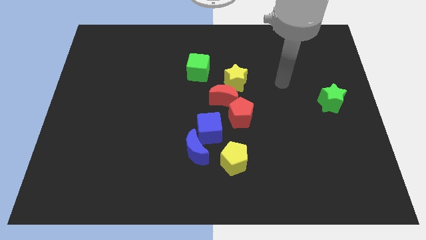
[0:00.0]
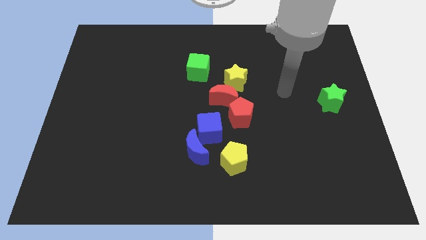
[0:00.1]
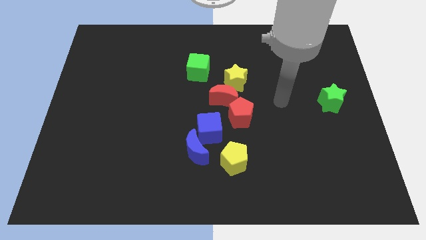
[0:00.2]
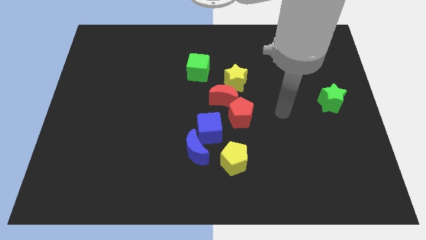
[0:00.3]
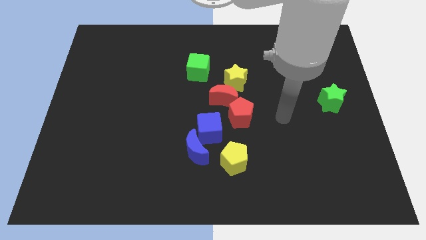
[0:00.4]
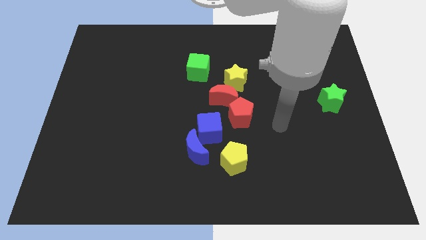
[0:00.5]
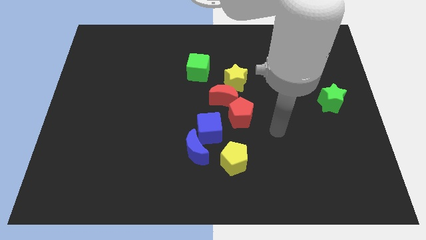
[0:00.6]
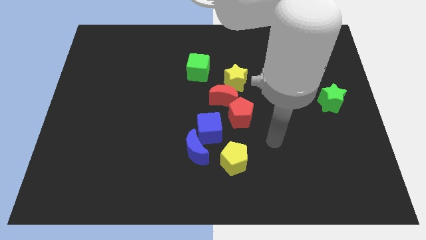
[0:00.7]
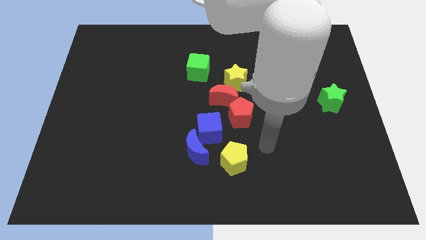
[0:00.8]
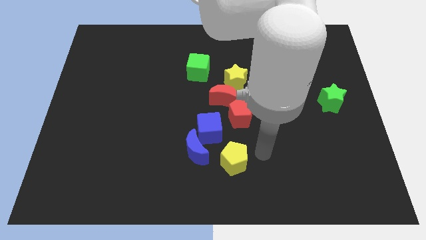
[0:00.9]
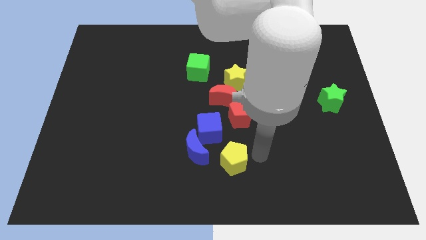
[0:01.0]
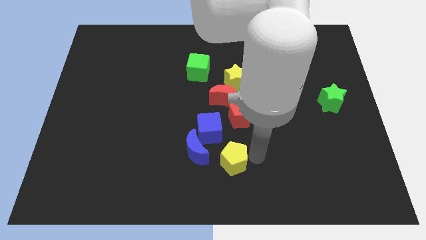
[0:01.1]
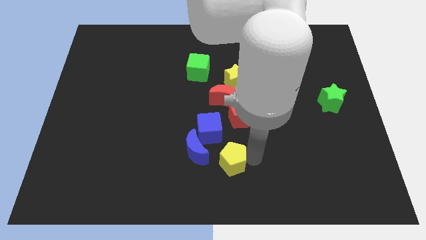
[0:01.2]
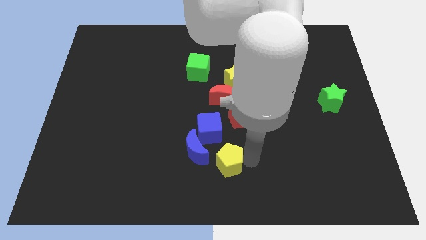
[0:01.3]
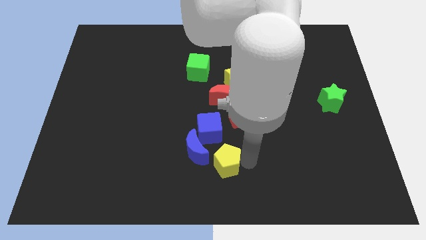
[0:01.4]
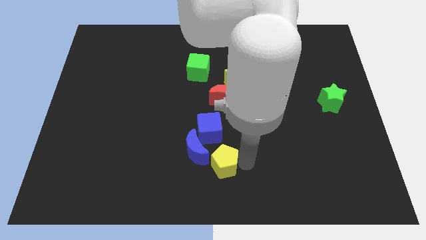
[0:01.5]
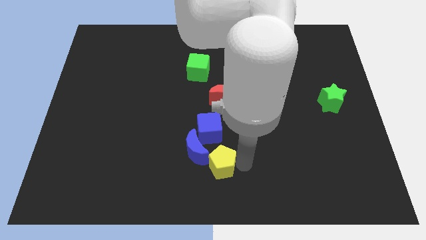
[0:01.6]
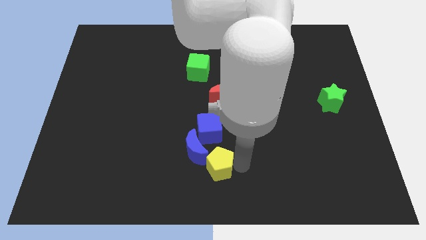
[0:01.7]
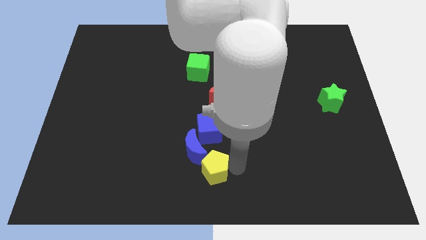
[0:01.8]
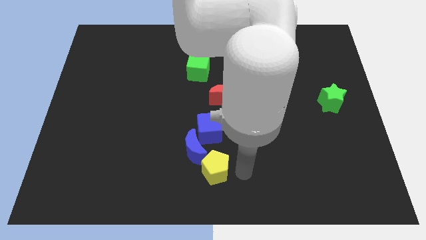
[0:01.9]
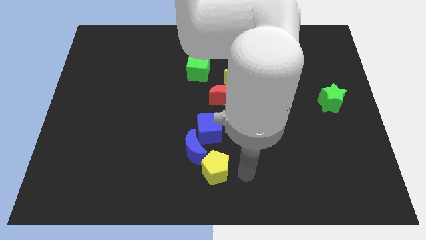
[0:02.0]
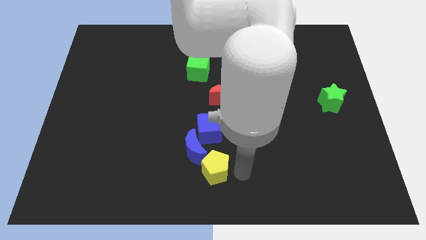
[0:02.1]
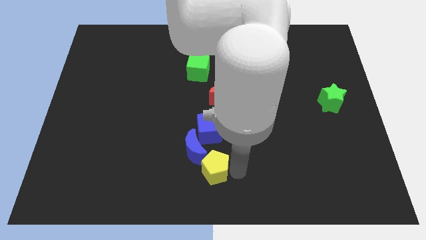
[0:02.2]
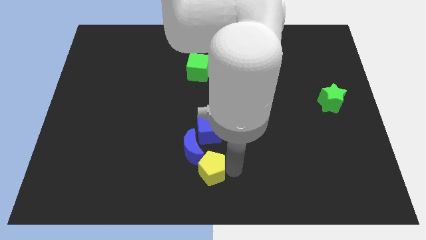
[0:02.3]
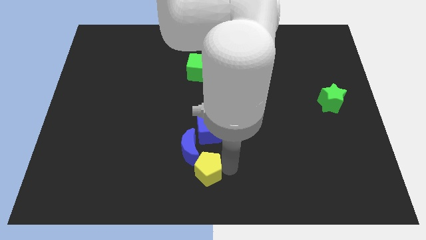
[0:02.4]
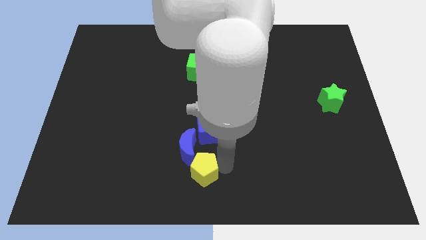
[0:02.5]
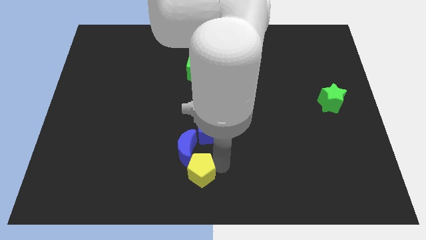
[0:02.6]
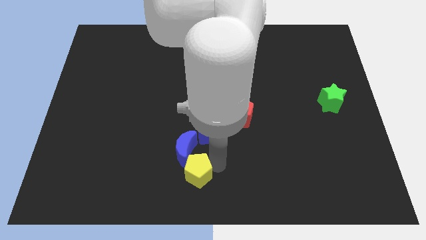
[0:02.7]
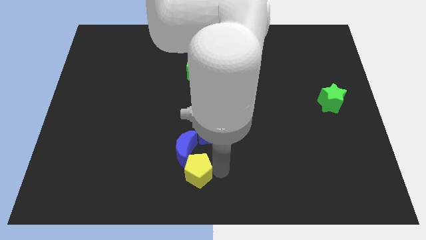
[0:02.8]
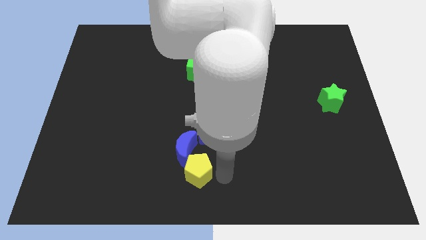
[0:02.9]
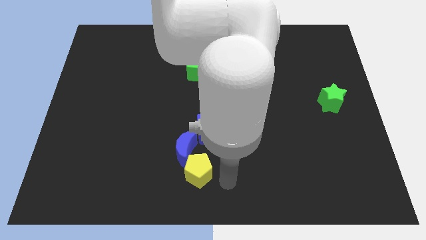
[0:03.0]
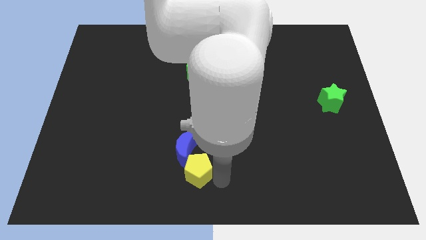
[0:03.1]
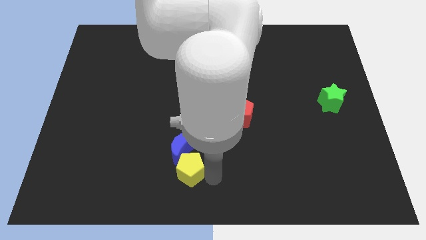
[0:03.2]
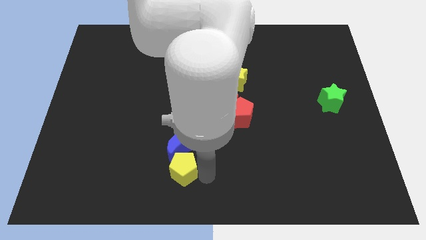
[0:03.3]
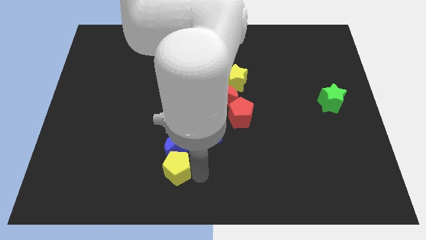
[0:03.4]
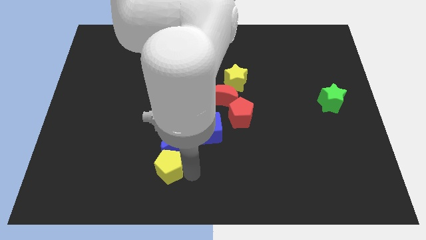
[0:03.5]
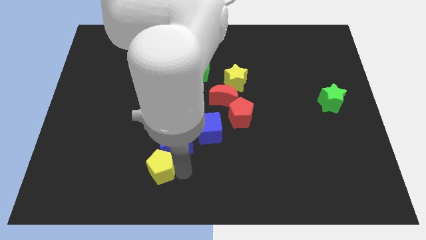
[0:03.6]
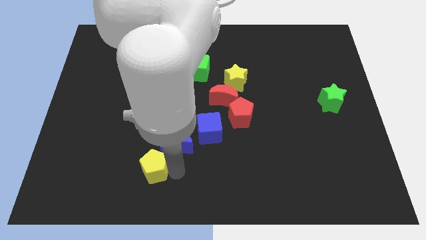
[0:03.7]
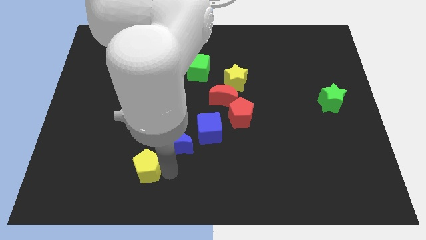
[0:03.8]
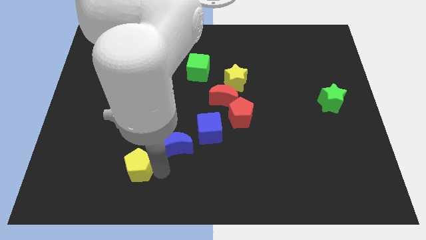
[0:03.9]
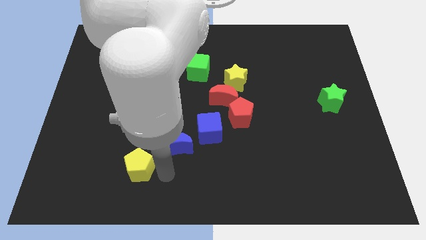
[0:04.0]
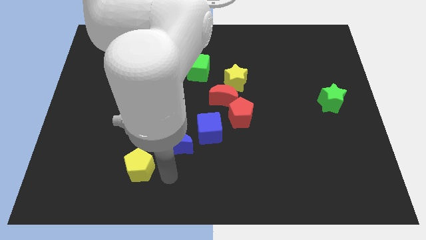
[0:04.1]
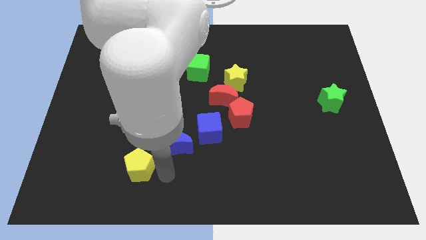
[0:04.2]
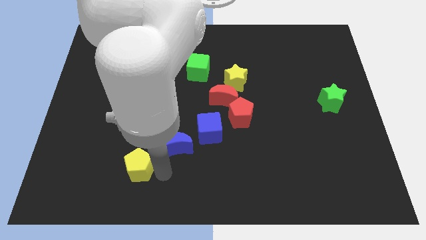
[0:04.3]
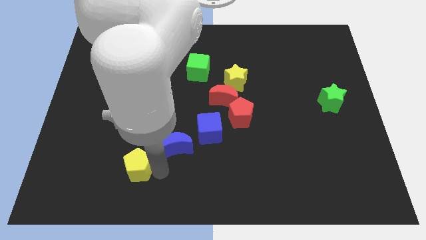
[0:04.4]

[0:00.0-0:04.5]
slide the yellow pentagon left

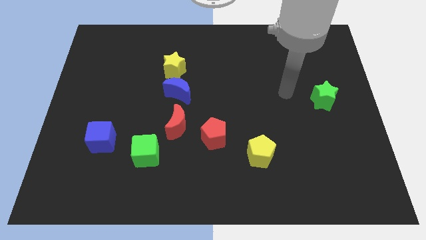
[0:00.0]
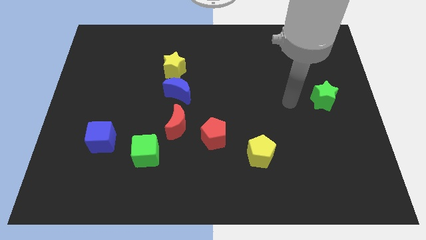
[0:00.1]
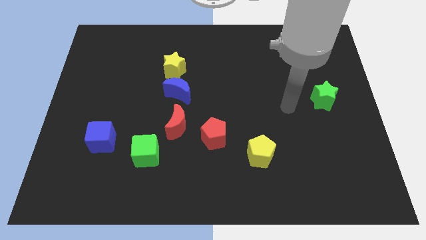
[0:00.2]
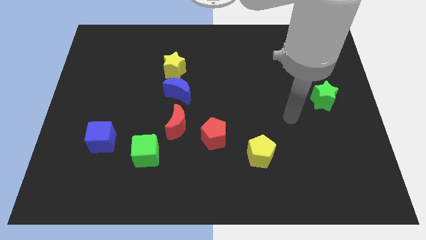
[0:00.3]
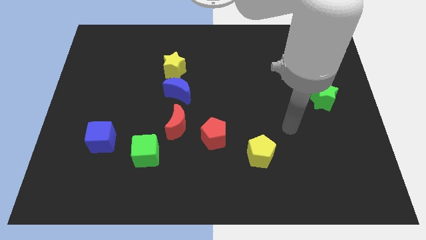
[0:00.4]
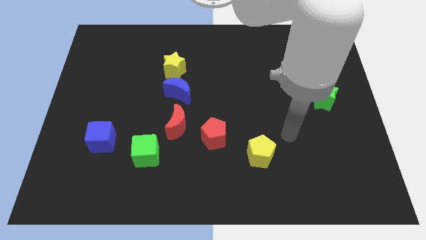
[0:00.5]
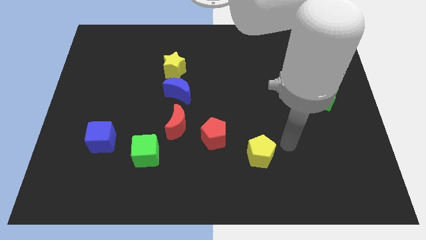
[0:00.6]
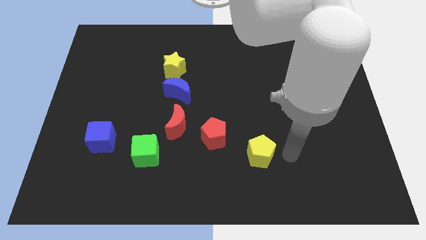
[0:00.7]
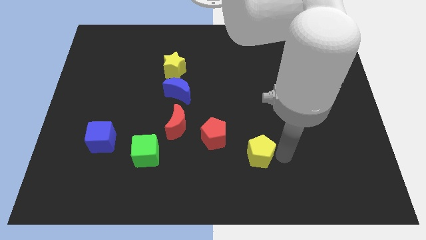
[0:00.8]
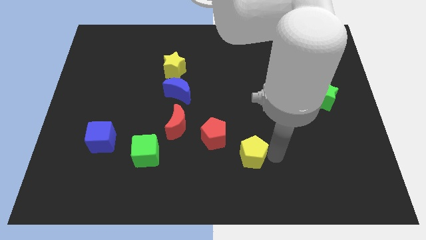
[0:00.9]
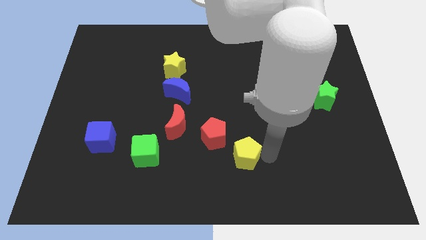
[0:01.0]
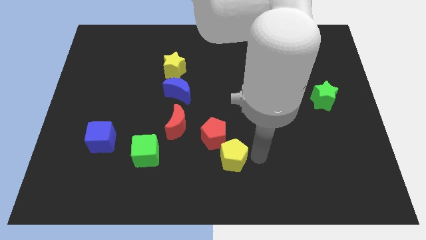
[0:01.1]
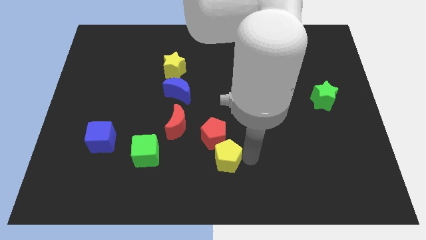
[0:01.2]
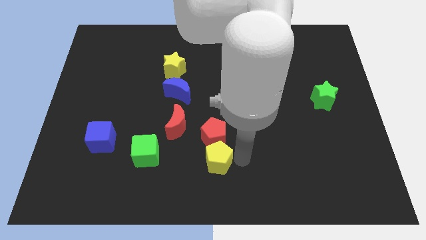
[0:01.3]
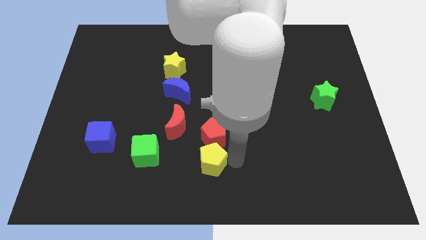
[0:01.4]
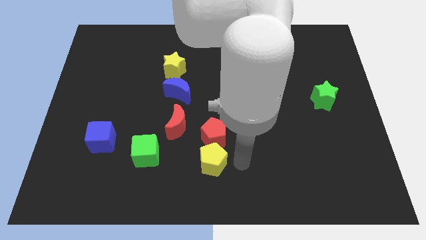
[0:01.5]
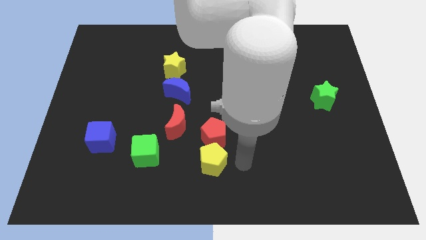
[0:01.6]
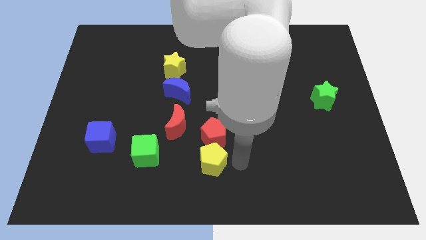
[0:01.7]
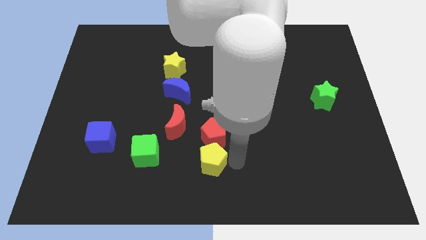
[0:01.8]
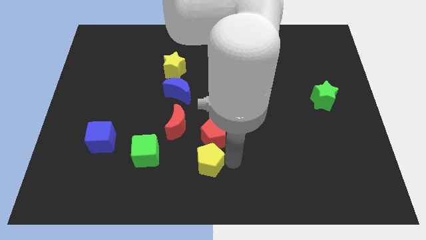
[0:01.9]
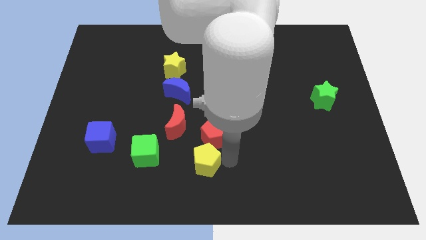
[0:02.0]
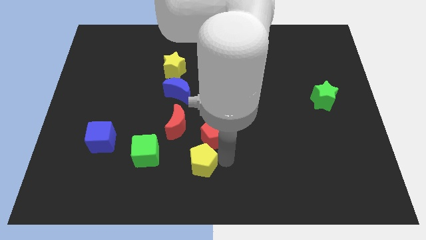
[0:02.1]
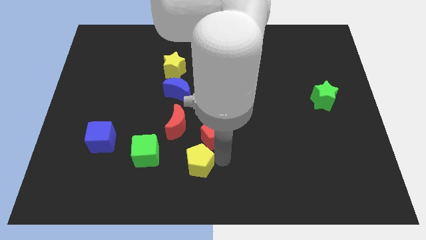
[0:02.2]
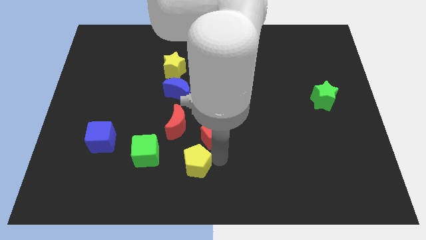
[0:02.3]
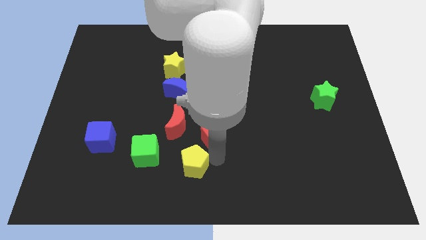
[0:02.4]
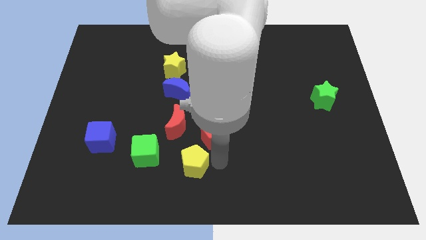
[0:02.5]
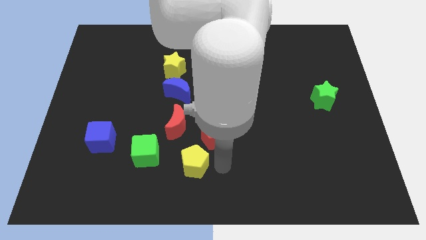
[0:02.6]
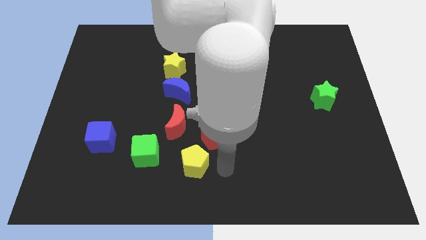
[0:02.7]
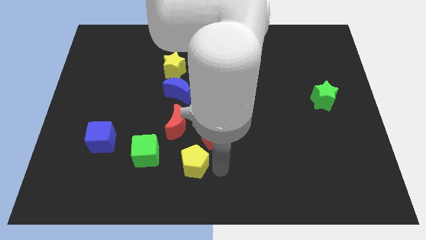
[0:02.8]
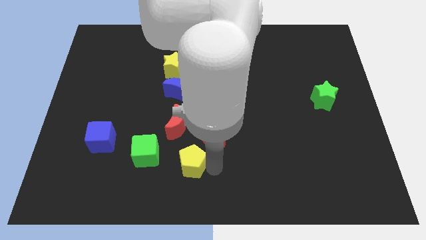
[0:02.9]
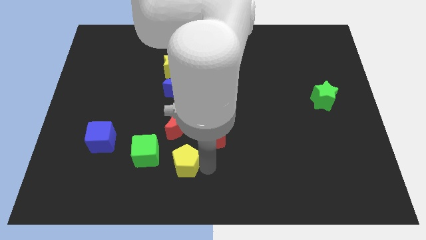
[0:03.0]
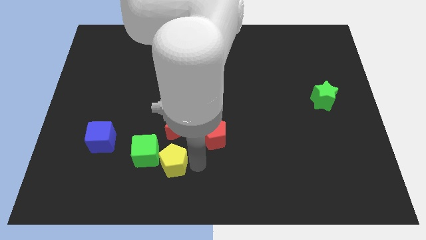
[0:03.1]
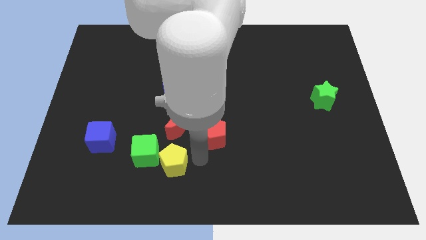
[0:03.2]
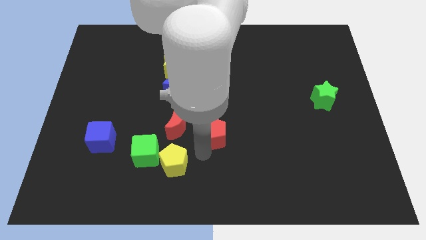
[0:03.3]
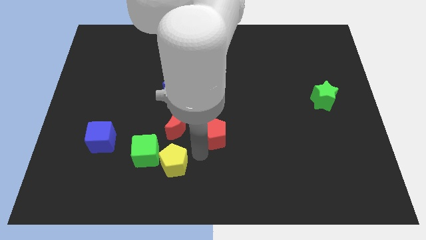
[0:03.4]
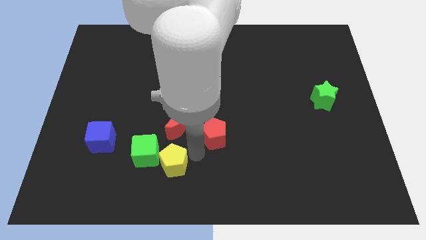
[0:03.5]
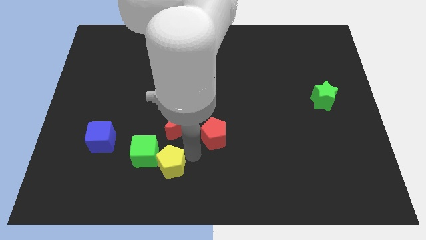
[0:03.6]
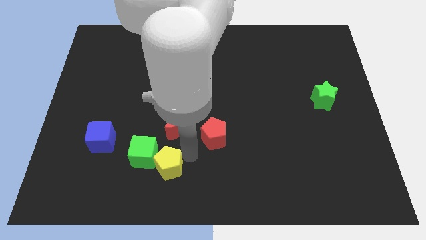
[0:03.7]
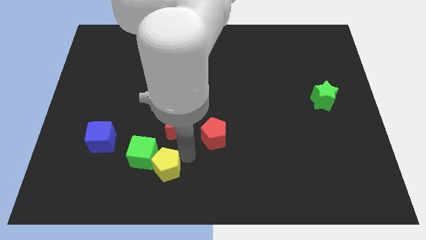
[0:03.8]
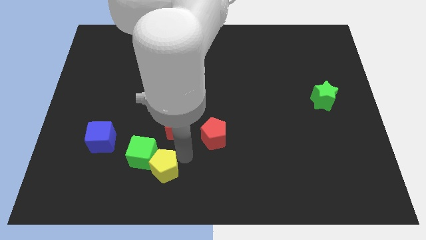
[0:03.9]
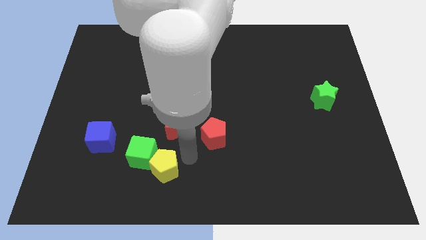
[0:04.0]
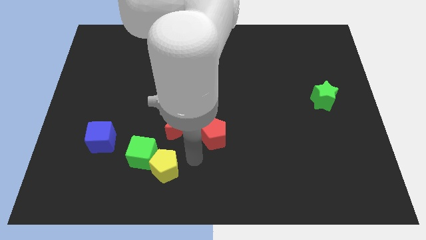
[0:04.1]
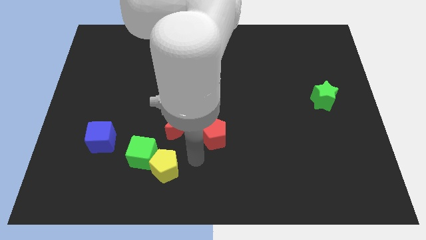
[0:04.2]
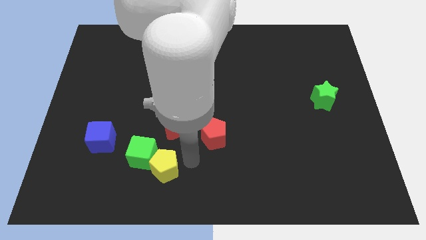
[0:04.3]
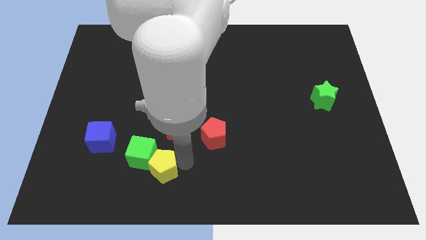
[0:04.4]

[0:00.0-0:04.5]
move the yellow pentagon left
